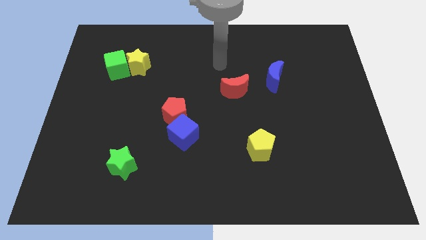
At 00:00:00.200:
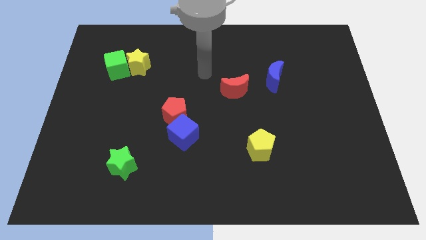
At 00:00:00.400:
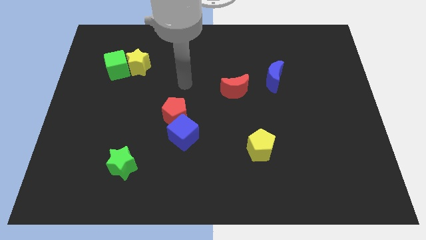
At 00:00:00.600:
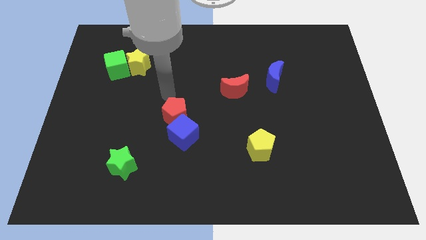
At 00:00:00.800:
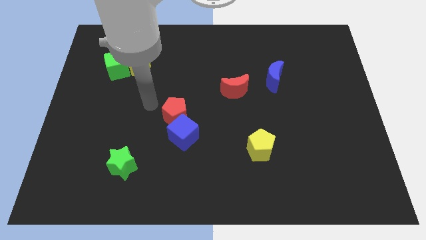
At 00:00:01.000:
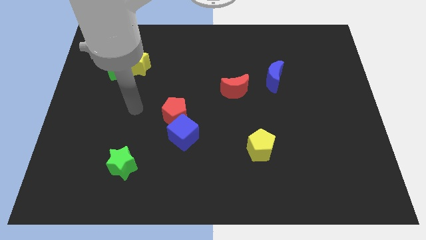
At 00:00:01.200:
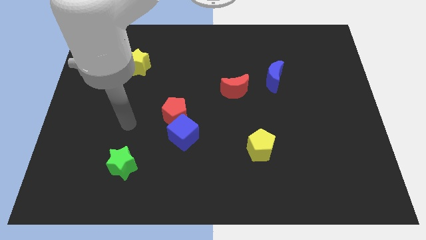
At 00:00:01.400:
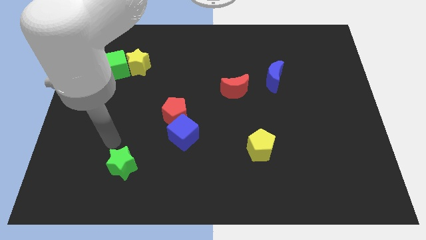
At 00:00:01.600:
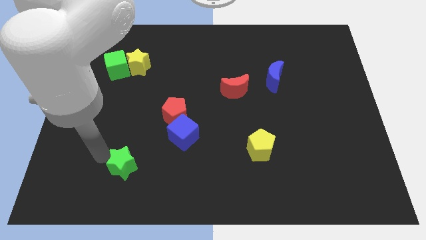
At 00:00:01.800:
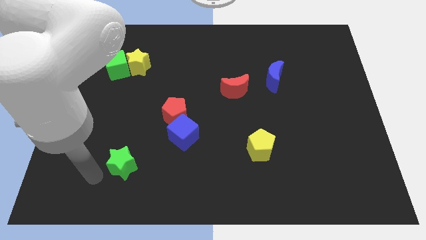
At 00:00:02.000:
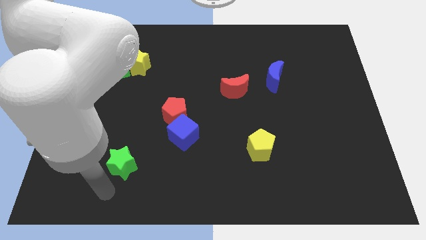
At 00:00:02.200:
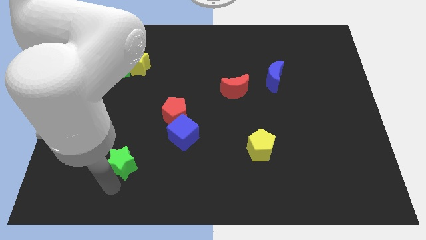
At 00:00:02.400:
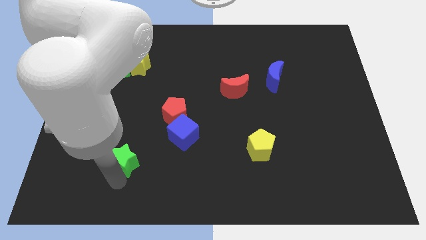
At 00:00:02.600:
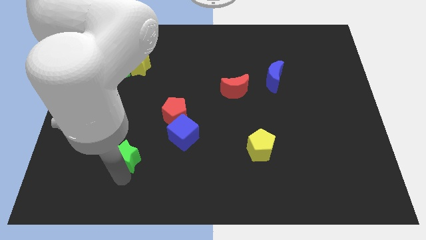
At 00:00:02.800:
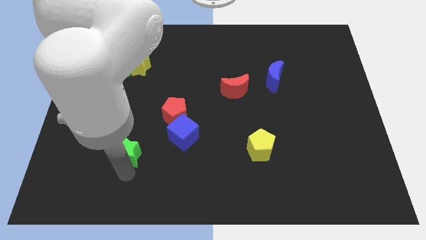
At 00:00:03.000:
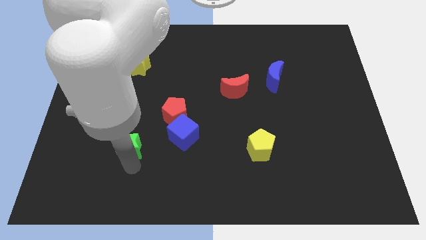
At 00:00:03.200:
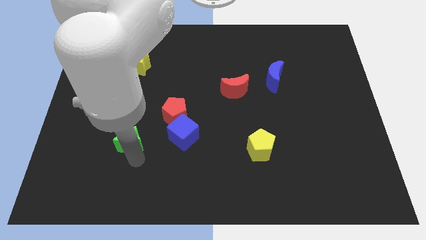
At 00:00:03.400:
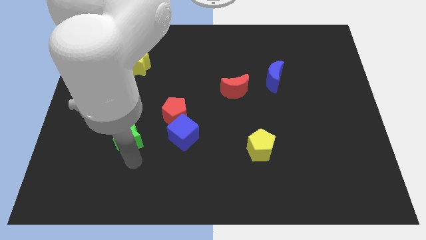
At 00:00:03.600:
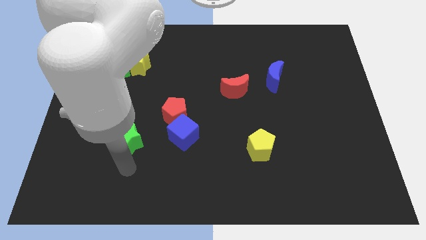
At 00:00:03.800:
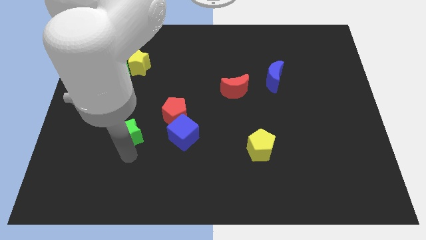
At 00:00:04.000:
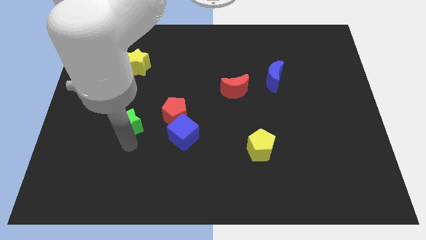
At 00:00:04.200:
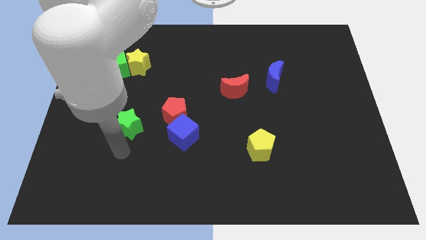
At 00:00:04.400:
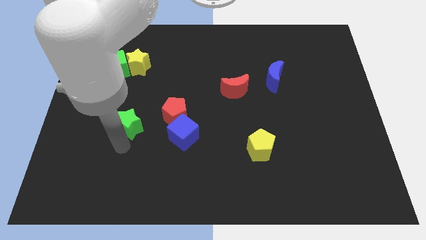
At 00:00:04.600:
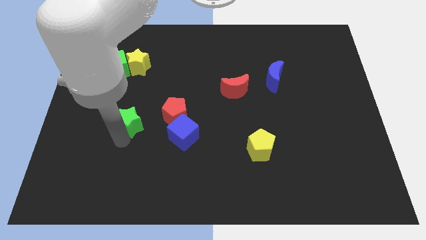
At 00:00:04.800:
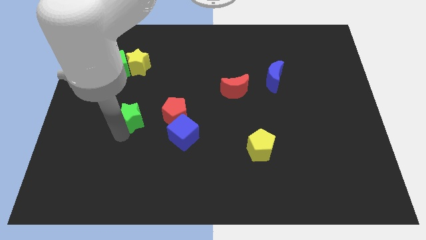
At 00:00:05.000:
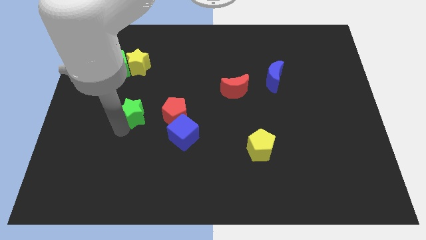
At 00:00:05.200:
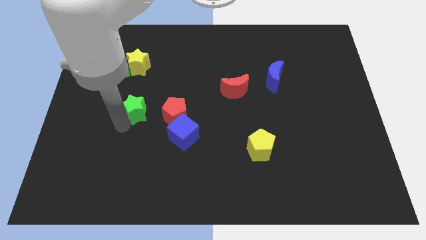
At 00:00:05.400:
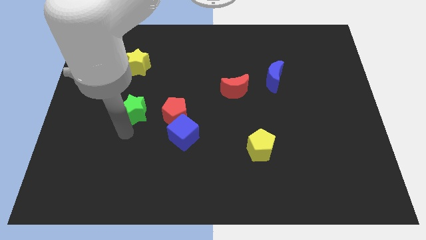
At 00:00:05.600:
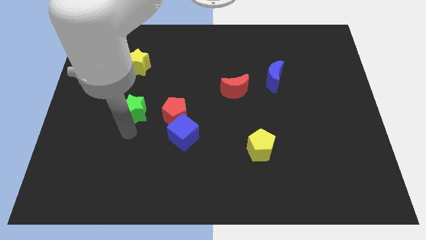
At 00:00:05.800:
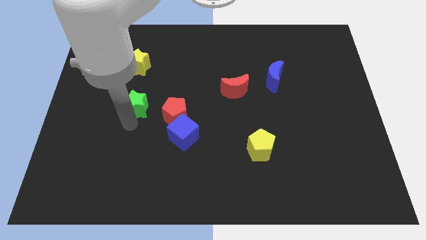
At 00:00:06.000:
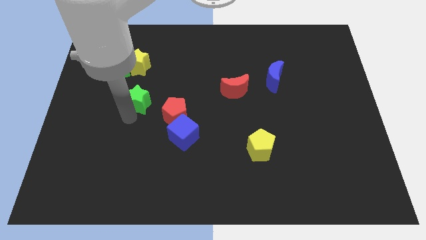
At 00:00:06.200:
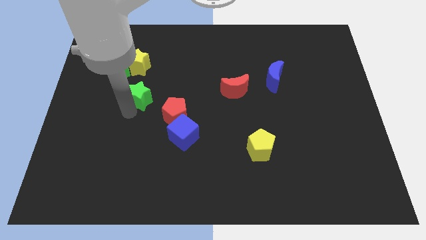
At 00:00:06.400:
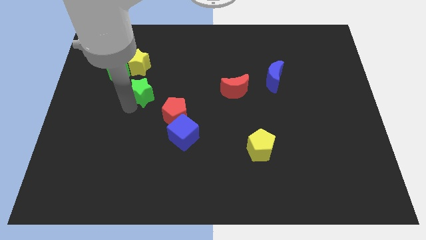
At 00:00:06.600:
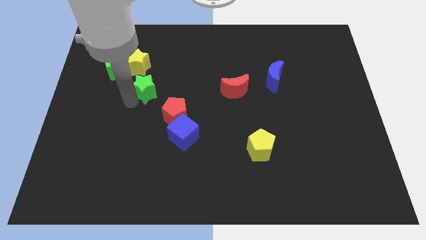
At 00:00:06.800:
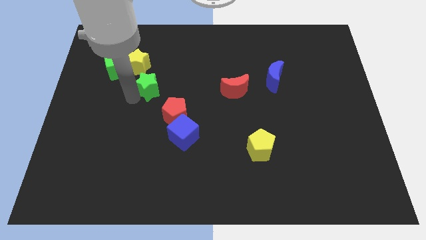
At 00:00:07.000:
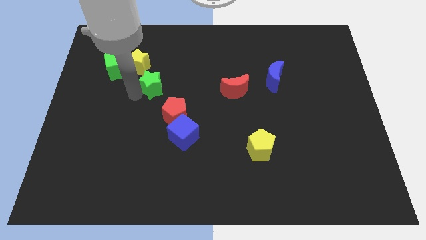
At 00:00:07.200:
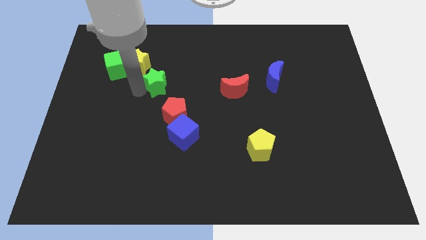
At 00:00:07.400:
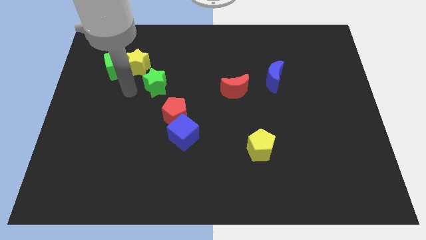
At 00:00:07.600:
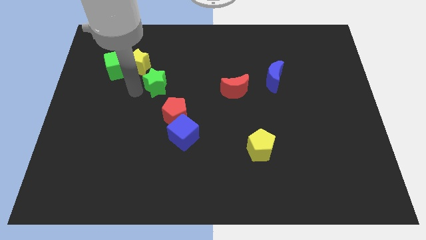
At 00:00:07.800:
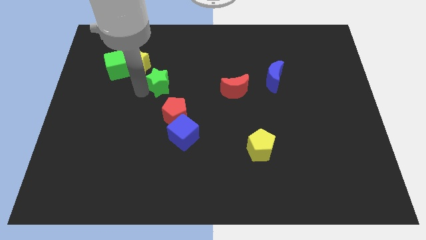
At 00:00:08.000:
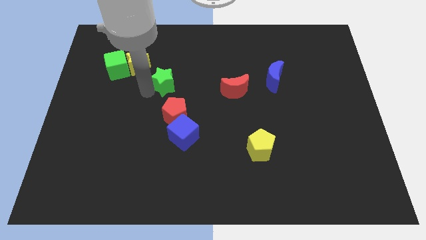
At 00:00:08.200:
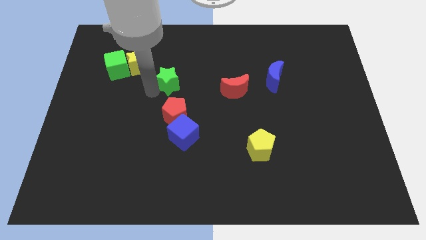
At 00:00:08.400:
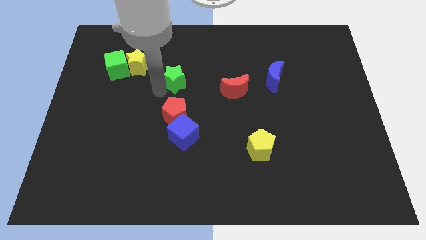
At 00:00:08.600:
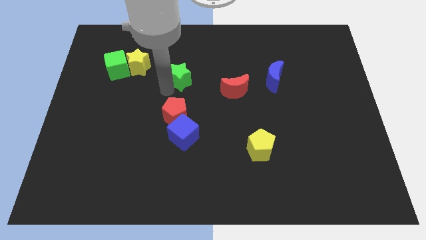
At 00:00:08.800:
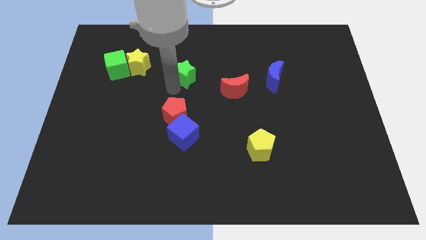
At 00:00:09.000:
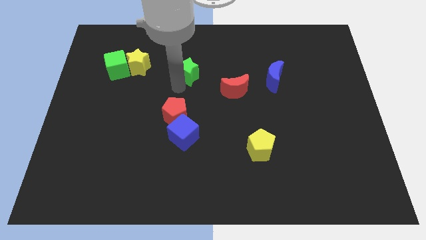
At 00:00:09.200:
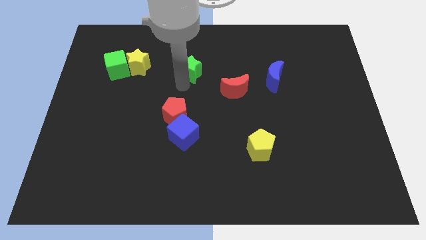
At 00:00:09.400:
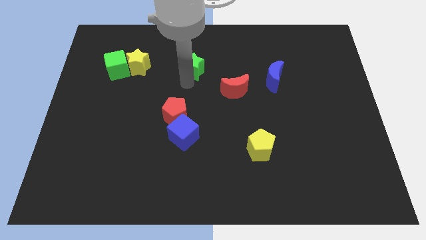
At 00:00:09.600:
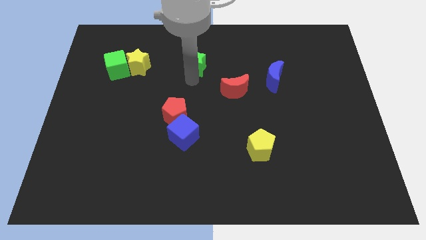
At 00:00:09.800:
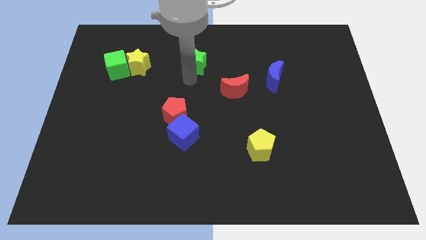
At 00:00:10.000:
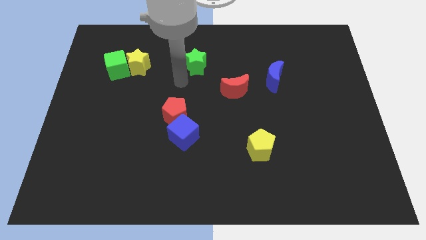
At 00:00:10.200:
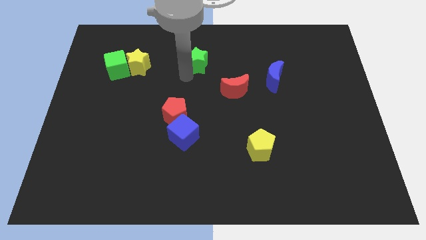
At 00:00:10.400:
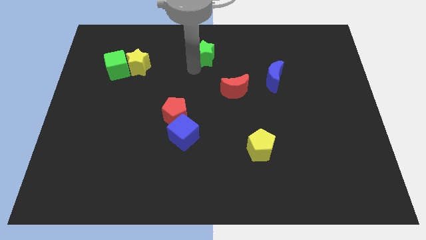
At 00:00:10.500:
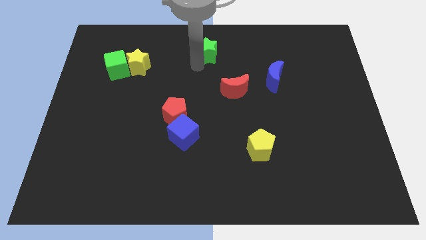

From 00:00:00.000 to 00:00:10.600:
push the green star to the top

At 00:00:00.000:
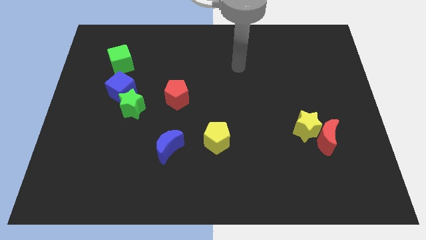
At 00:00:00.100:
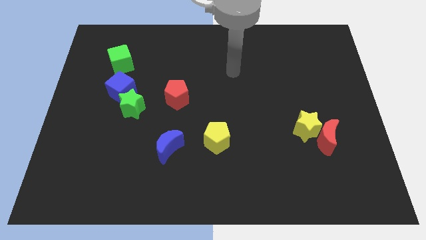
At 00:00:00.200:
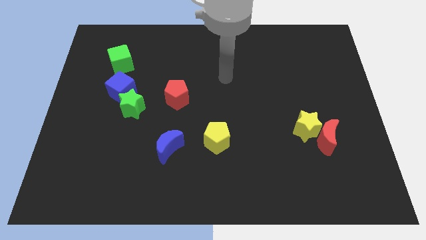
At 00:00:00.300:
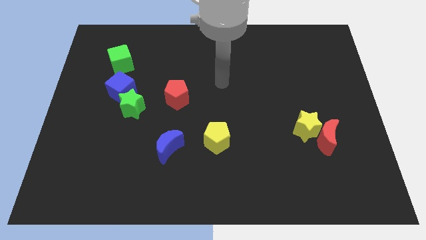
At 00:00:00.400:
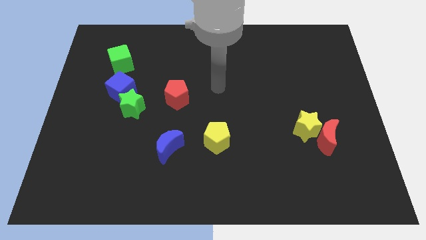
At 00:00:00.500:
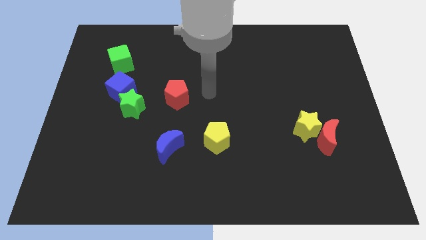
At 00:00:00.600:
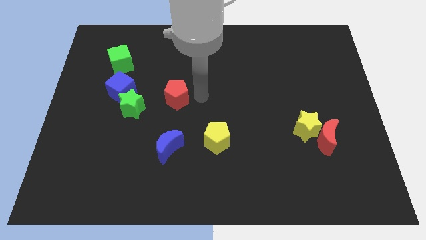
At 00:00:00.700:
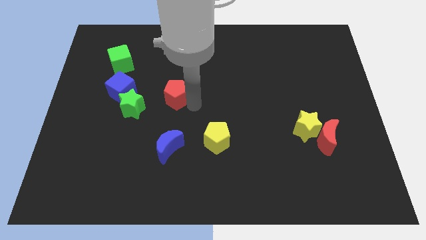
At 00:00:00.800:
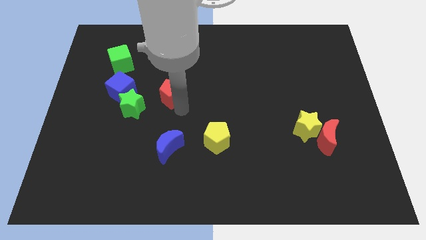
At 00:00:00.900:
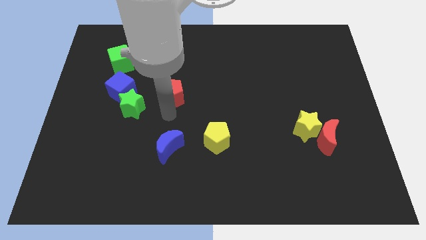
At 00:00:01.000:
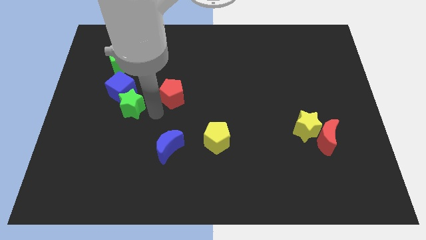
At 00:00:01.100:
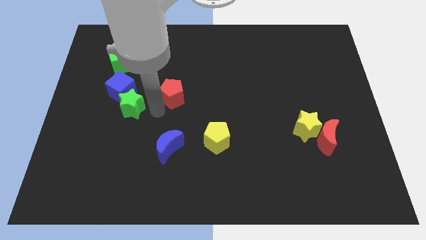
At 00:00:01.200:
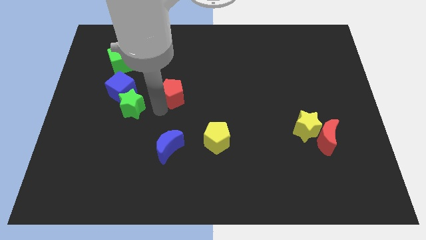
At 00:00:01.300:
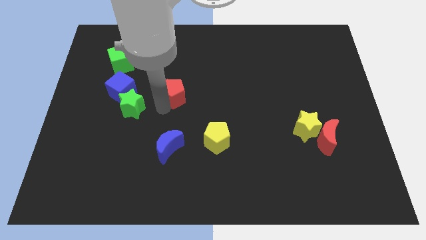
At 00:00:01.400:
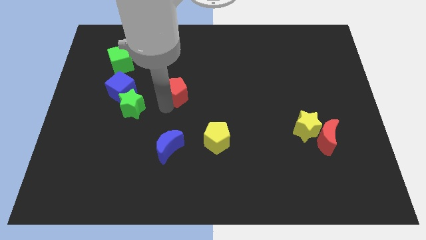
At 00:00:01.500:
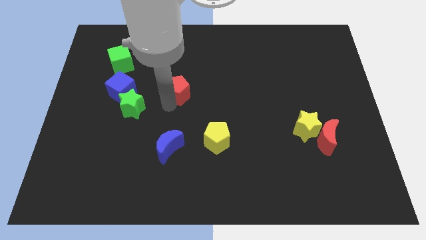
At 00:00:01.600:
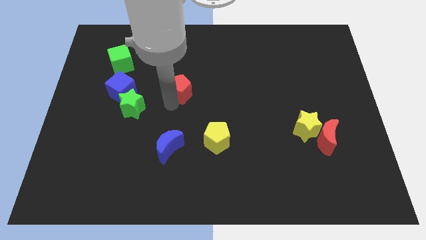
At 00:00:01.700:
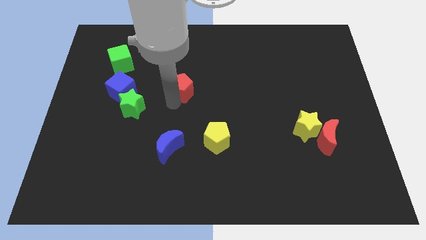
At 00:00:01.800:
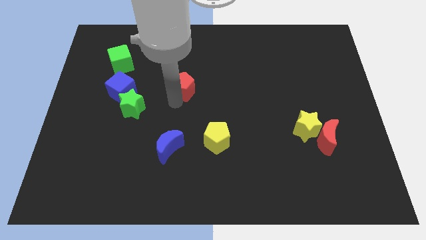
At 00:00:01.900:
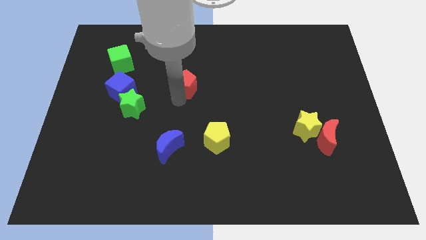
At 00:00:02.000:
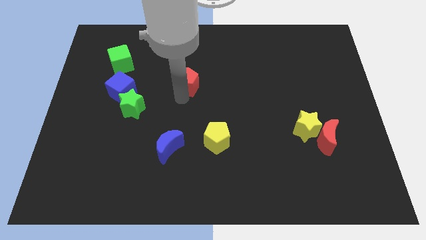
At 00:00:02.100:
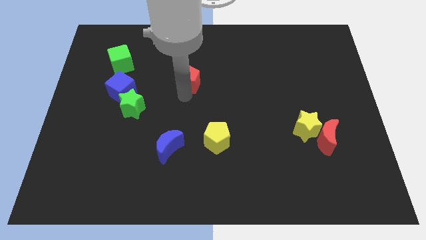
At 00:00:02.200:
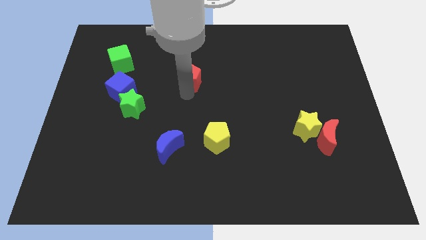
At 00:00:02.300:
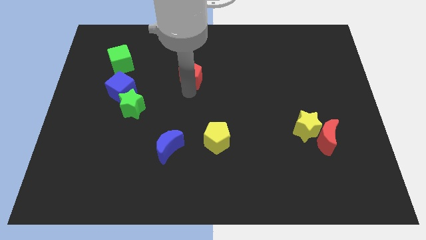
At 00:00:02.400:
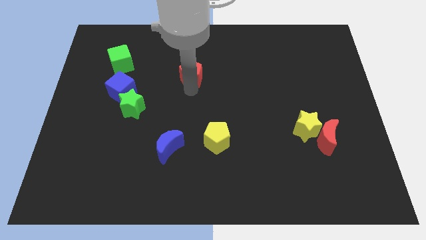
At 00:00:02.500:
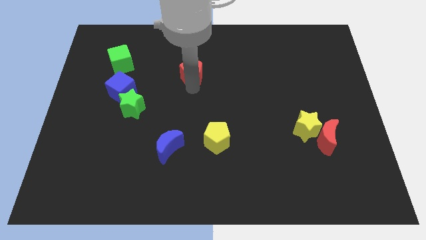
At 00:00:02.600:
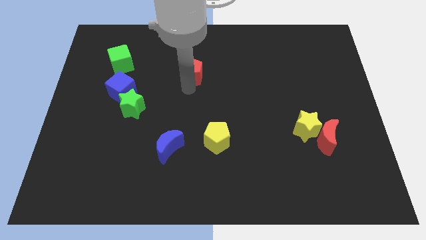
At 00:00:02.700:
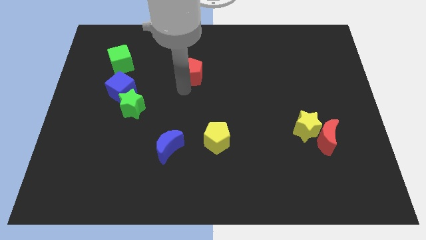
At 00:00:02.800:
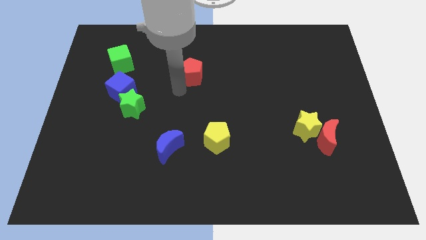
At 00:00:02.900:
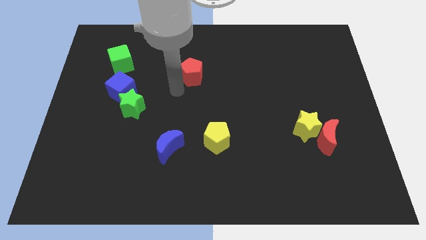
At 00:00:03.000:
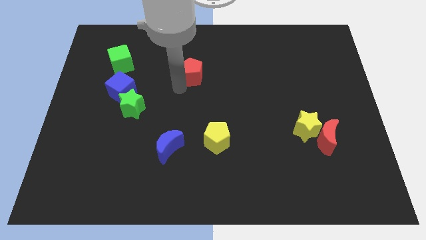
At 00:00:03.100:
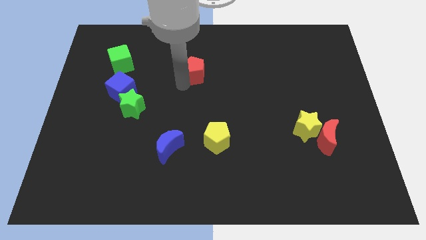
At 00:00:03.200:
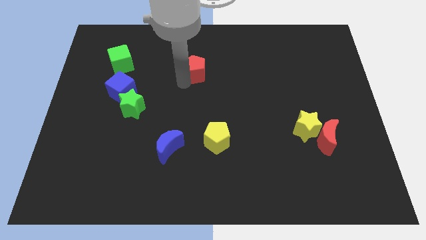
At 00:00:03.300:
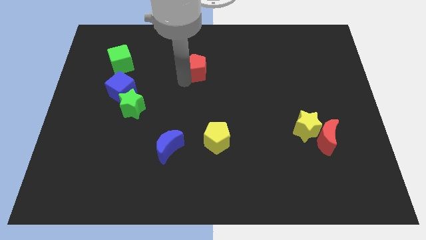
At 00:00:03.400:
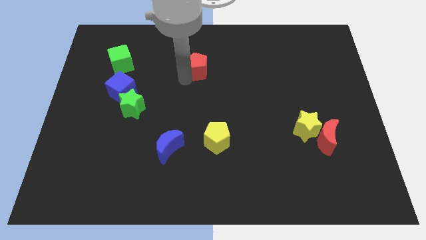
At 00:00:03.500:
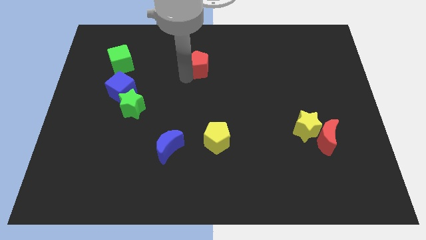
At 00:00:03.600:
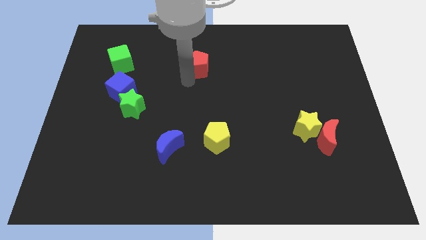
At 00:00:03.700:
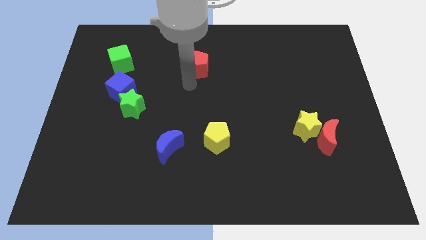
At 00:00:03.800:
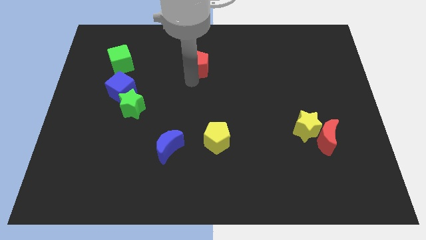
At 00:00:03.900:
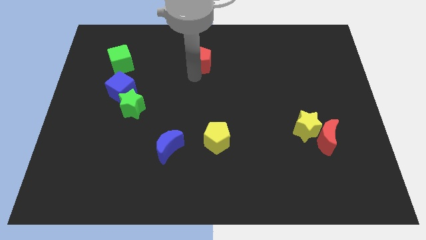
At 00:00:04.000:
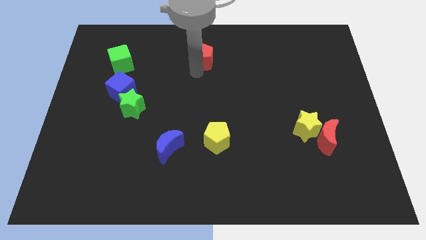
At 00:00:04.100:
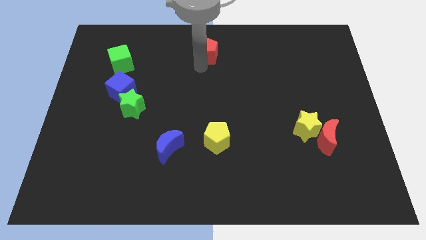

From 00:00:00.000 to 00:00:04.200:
push the red pentagon to the towards your base
